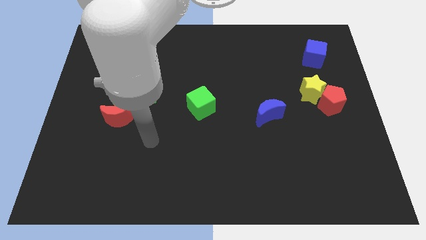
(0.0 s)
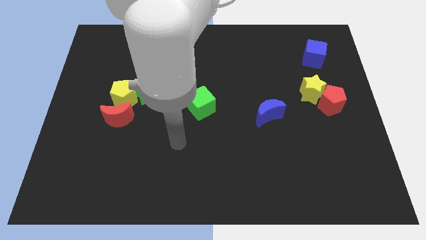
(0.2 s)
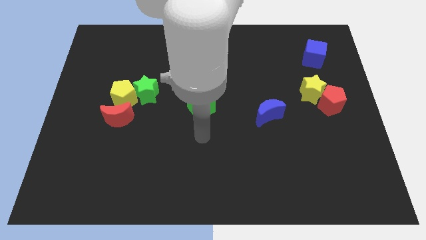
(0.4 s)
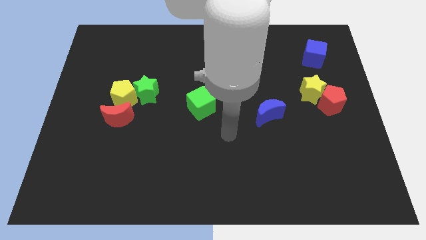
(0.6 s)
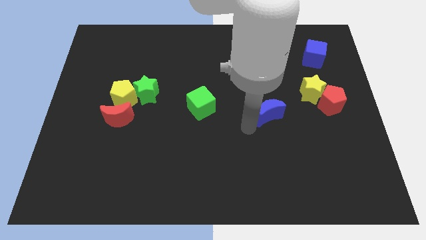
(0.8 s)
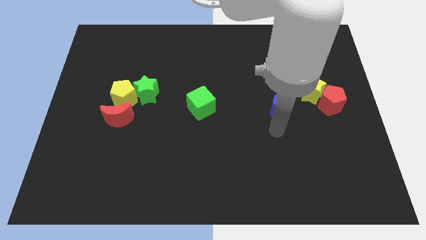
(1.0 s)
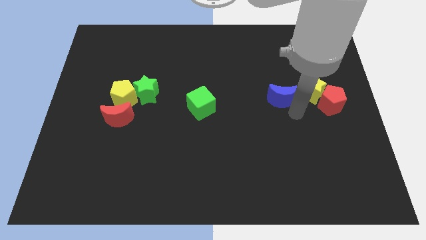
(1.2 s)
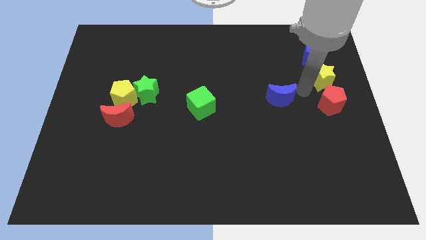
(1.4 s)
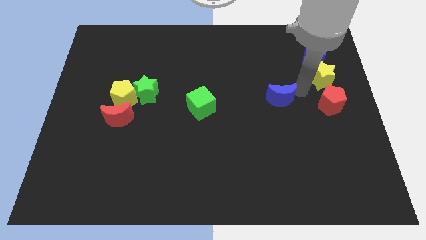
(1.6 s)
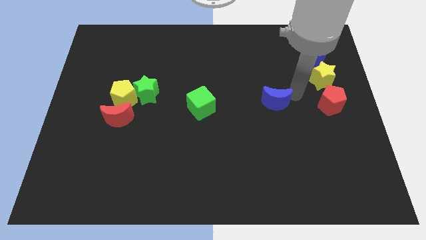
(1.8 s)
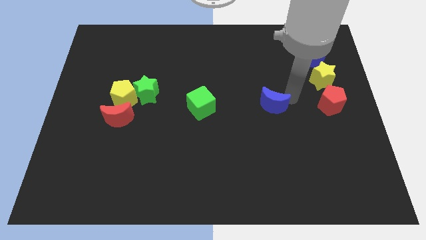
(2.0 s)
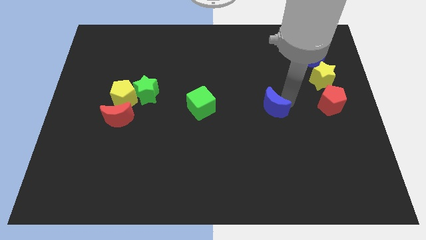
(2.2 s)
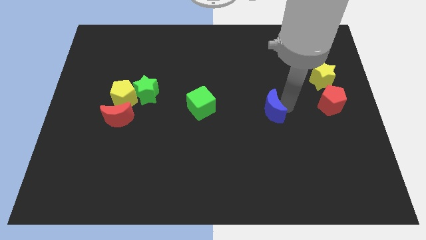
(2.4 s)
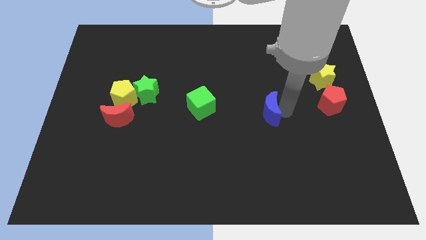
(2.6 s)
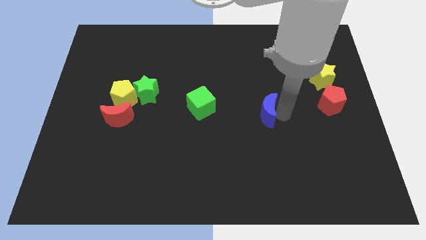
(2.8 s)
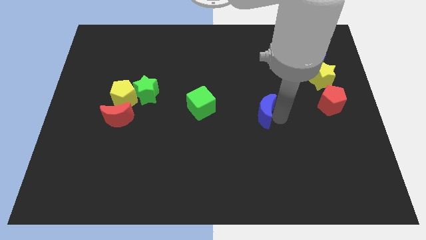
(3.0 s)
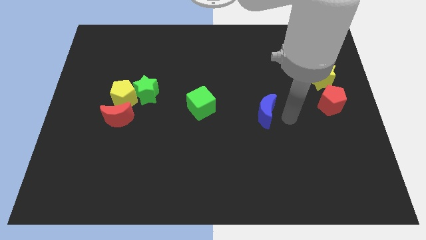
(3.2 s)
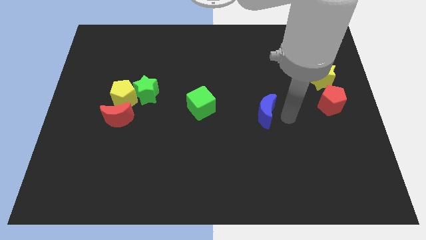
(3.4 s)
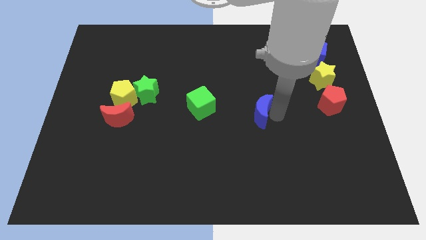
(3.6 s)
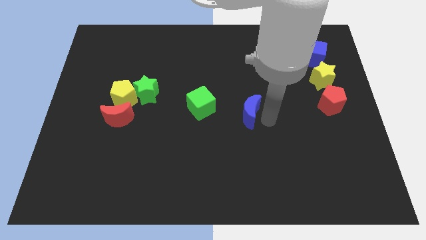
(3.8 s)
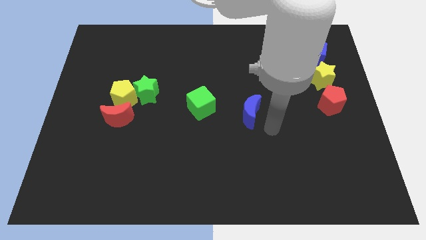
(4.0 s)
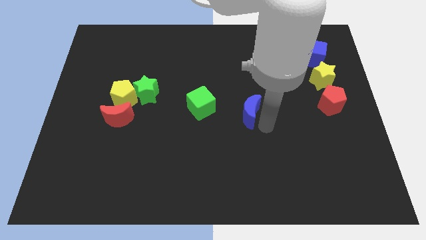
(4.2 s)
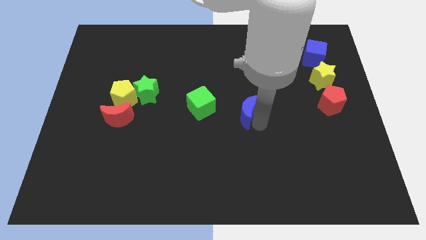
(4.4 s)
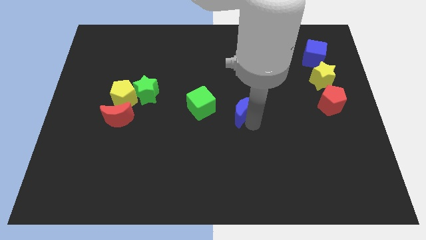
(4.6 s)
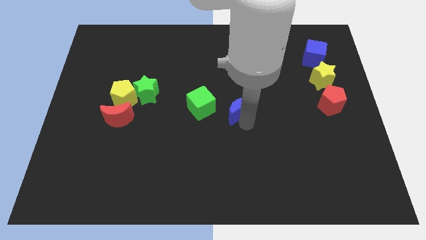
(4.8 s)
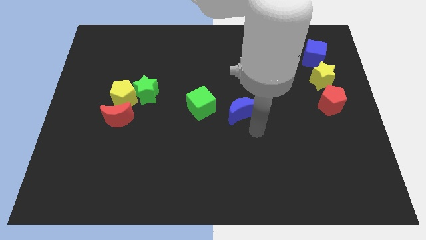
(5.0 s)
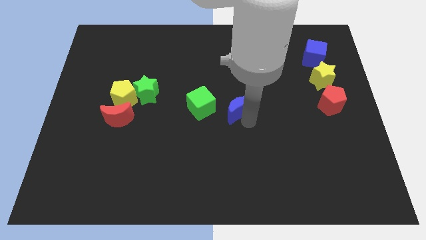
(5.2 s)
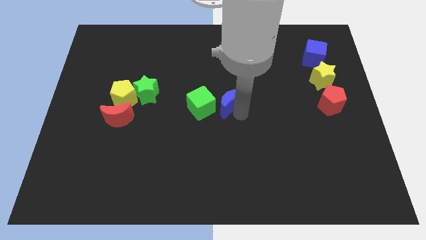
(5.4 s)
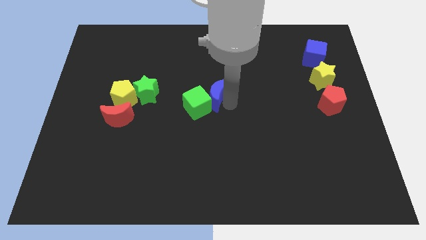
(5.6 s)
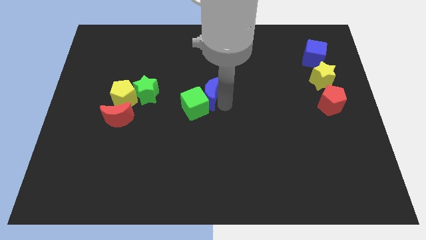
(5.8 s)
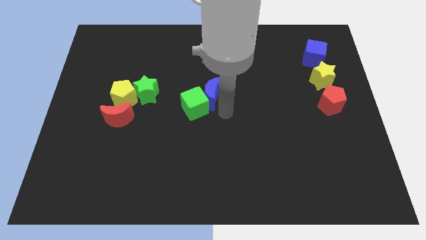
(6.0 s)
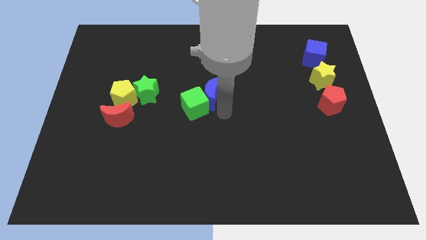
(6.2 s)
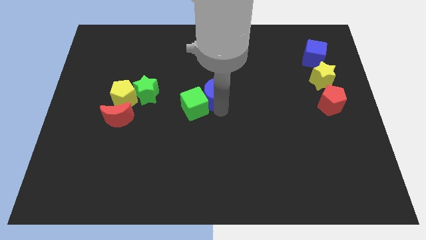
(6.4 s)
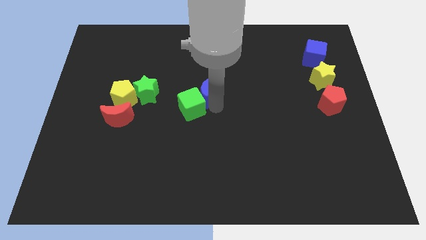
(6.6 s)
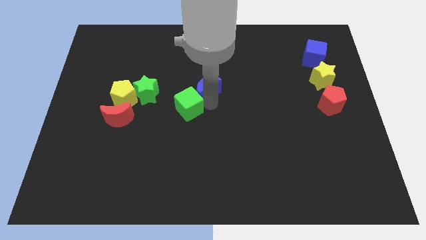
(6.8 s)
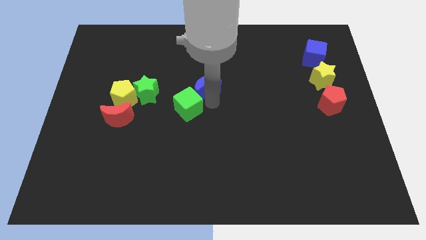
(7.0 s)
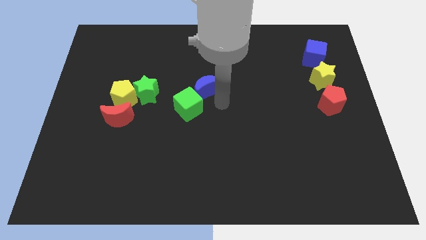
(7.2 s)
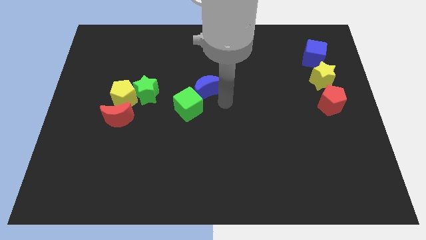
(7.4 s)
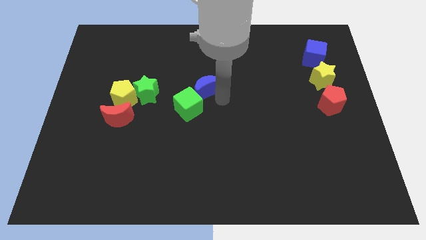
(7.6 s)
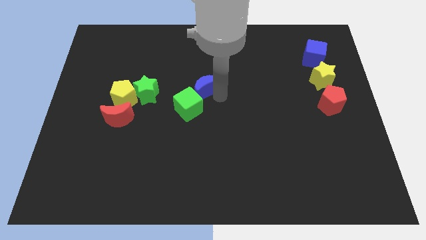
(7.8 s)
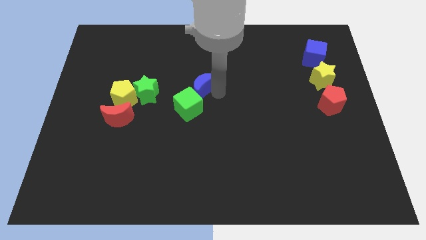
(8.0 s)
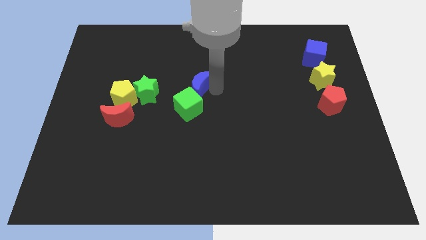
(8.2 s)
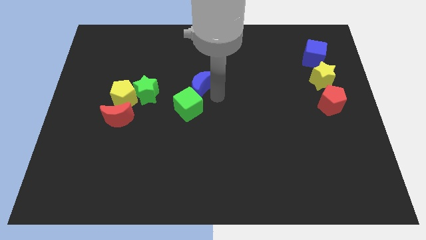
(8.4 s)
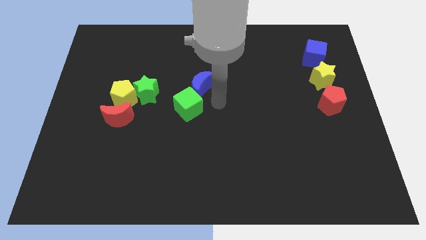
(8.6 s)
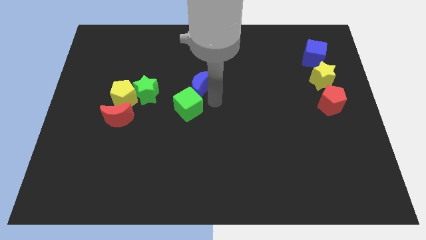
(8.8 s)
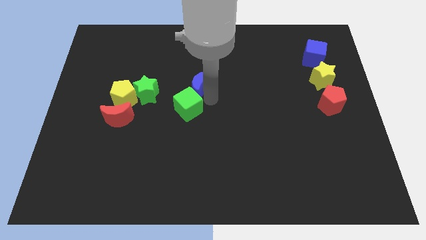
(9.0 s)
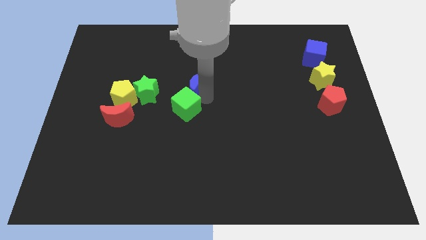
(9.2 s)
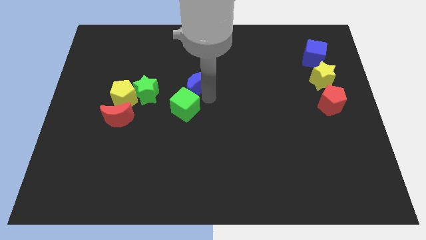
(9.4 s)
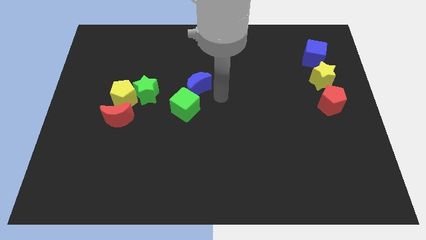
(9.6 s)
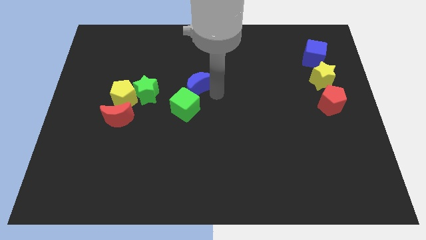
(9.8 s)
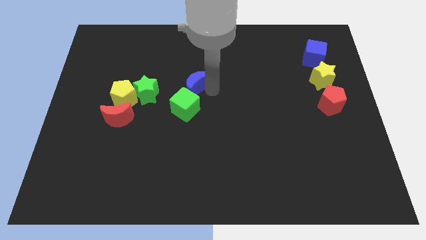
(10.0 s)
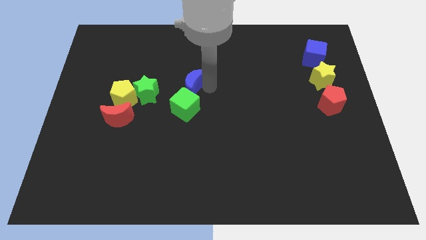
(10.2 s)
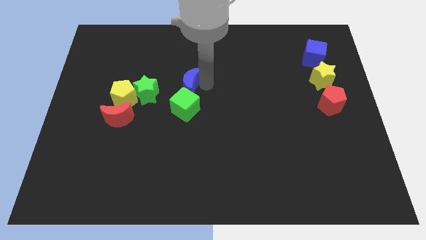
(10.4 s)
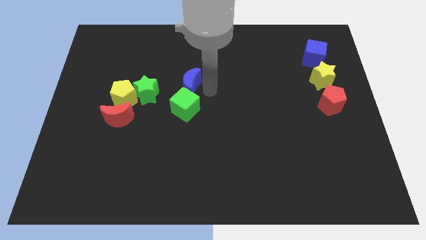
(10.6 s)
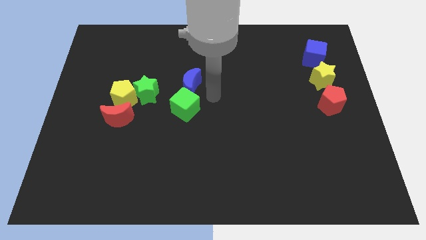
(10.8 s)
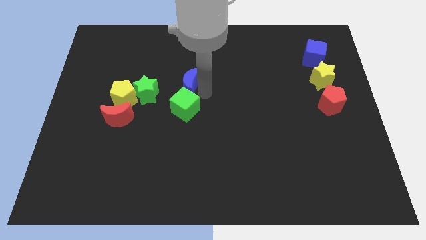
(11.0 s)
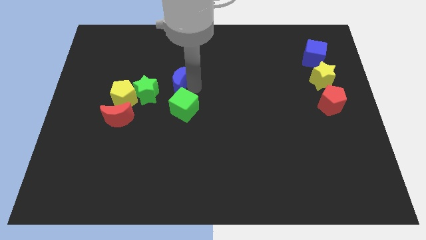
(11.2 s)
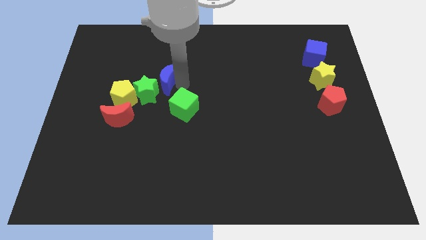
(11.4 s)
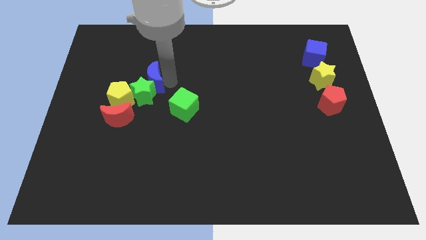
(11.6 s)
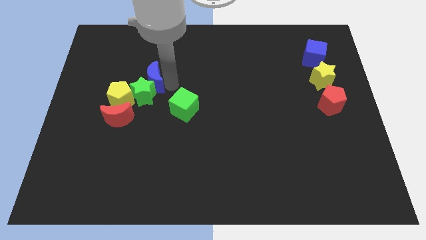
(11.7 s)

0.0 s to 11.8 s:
push the blue moon to the top left side of the green star
